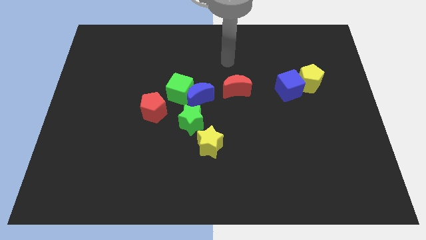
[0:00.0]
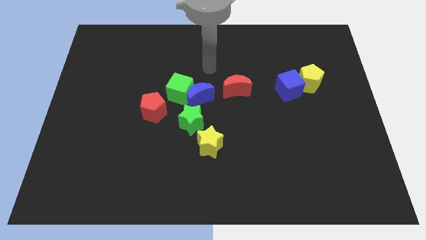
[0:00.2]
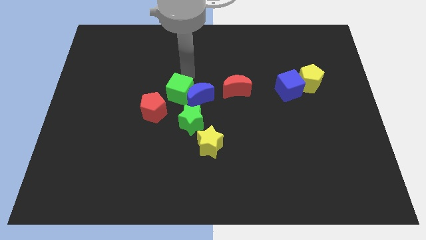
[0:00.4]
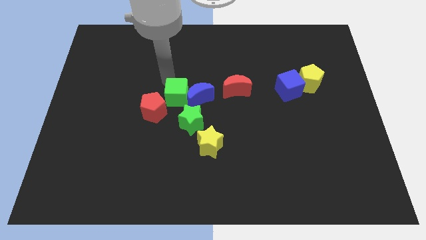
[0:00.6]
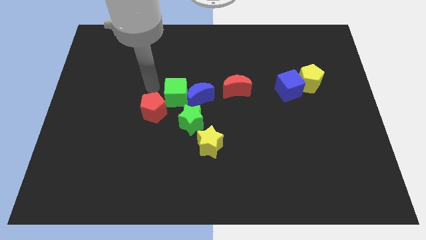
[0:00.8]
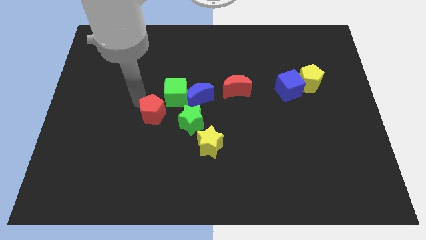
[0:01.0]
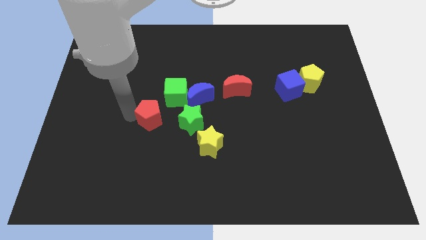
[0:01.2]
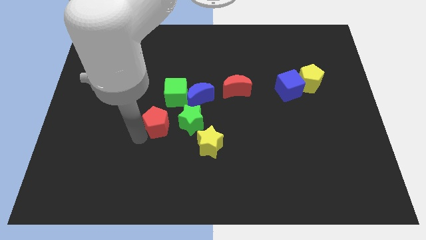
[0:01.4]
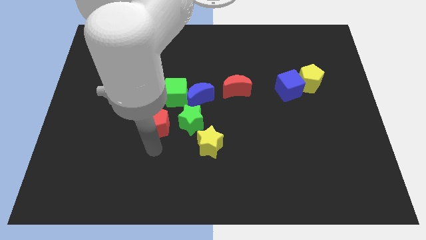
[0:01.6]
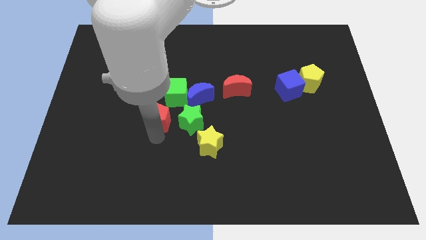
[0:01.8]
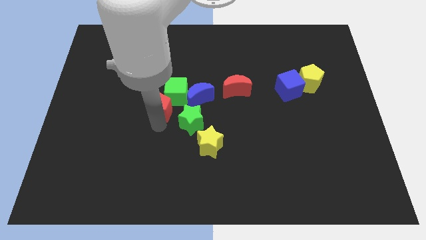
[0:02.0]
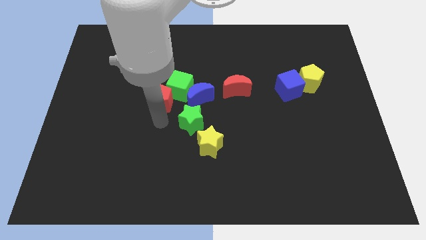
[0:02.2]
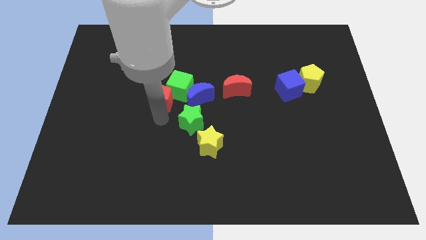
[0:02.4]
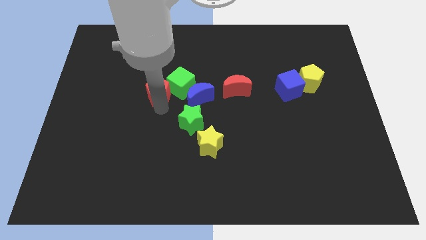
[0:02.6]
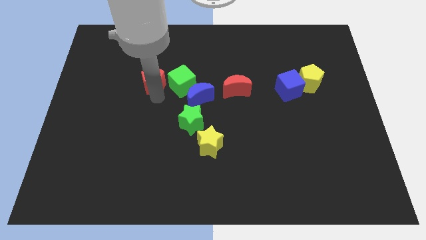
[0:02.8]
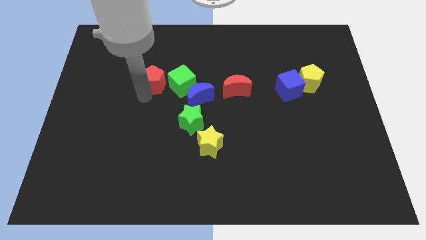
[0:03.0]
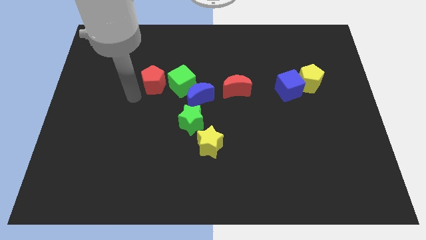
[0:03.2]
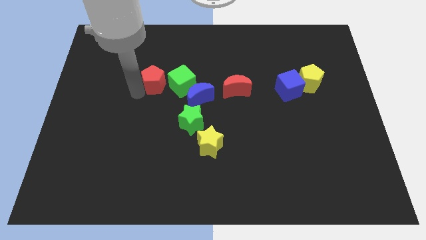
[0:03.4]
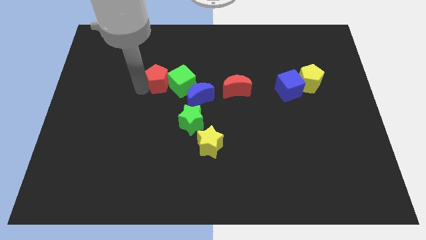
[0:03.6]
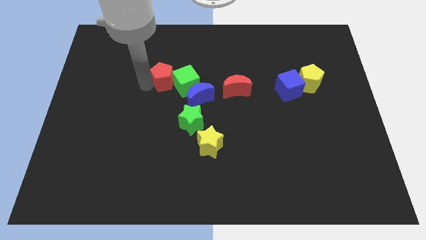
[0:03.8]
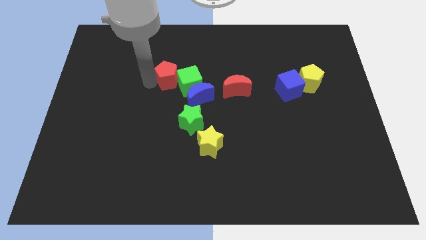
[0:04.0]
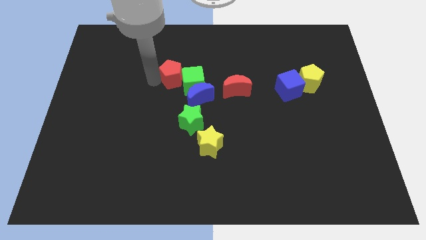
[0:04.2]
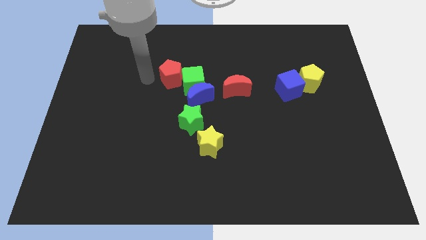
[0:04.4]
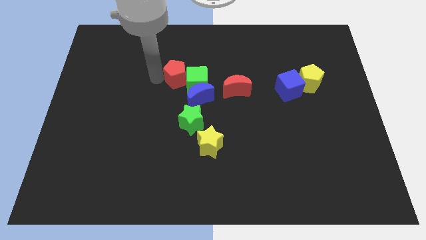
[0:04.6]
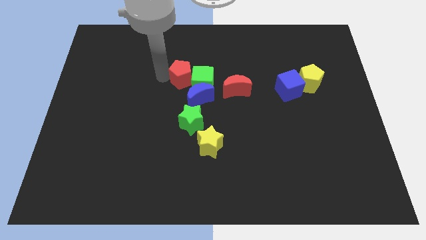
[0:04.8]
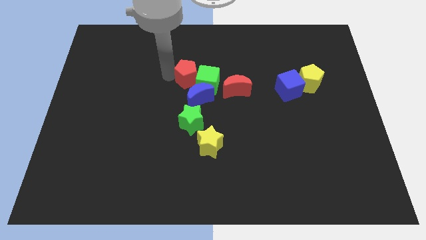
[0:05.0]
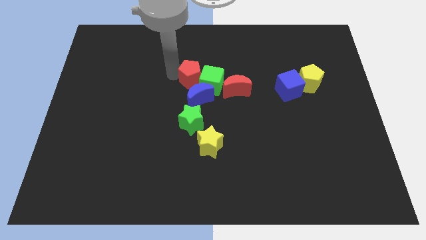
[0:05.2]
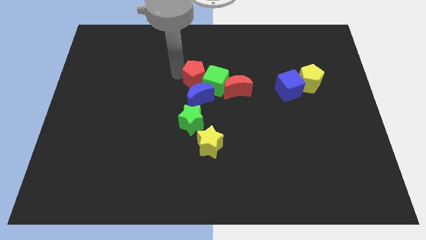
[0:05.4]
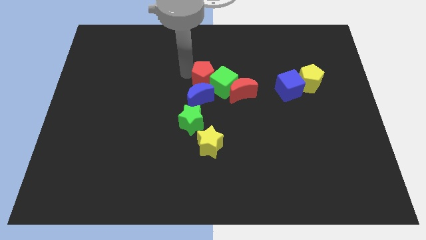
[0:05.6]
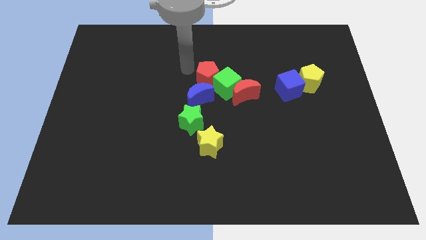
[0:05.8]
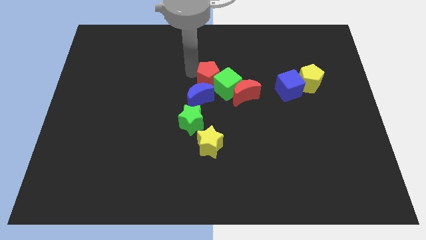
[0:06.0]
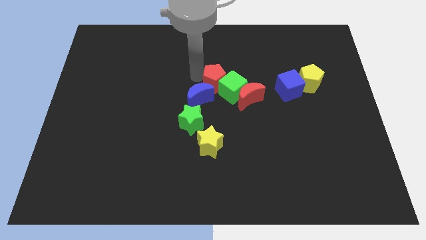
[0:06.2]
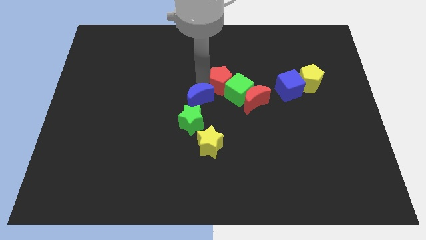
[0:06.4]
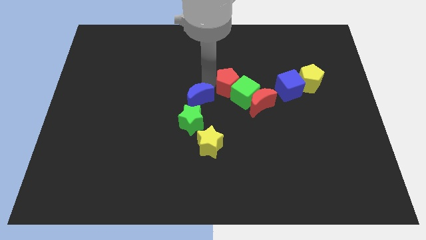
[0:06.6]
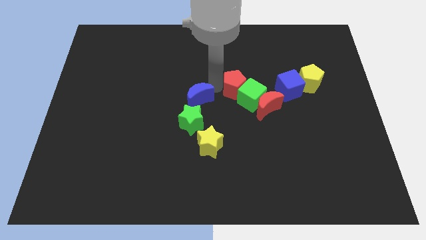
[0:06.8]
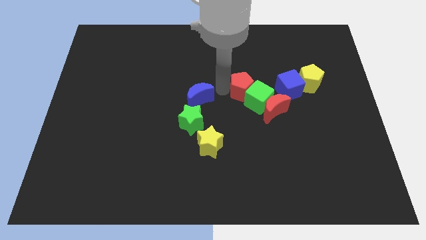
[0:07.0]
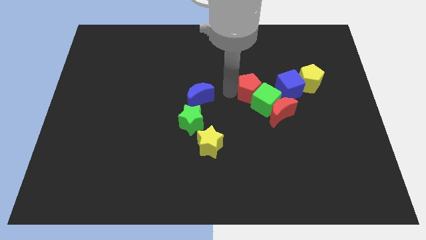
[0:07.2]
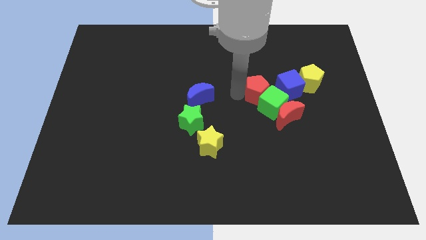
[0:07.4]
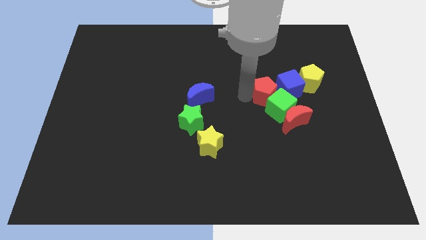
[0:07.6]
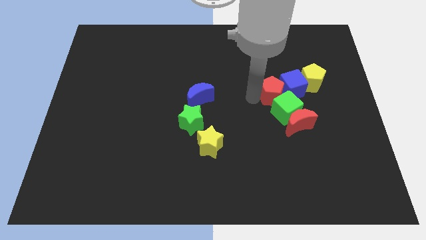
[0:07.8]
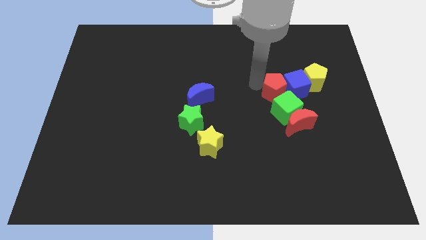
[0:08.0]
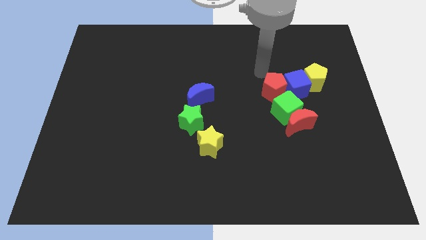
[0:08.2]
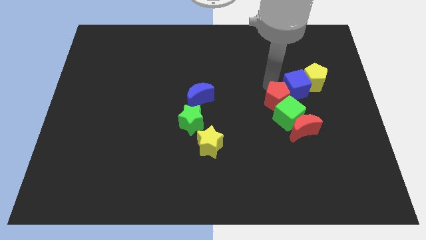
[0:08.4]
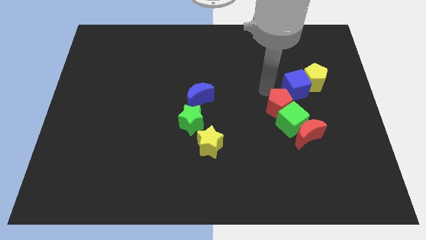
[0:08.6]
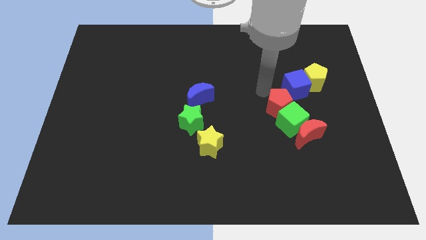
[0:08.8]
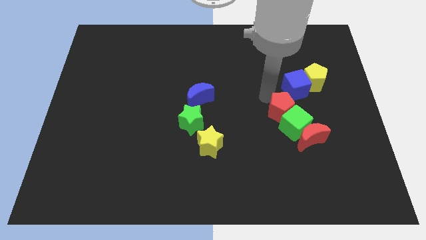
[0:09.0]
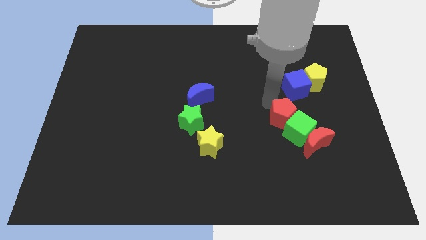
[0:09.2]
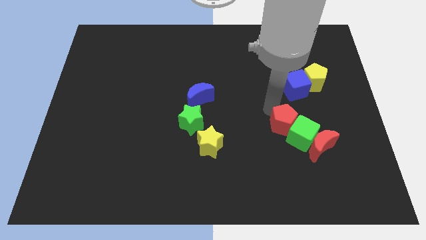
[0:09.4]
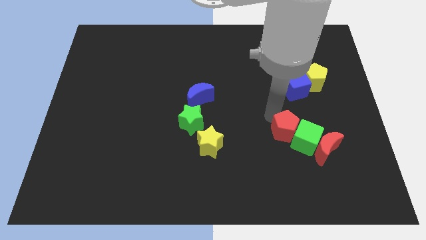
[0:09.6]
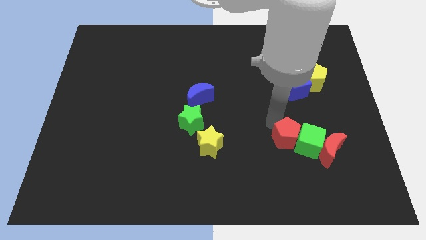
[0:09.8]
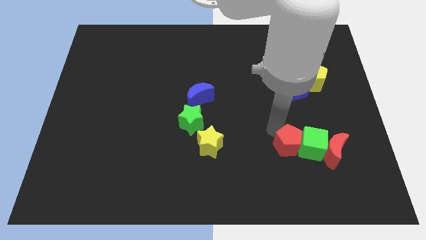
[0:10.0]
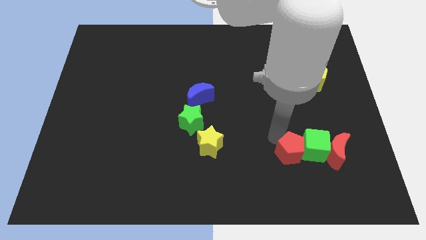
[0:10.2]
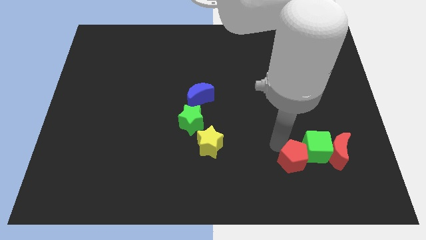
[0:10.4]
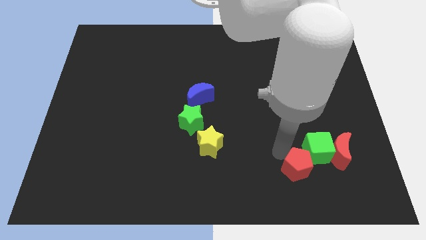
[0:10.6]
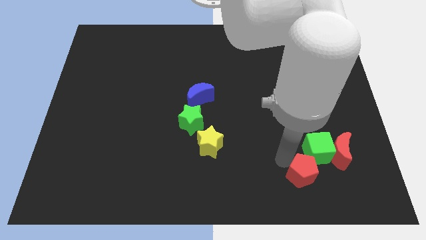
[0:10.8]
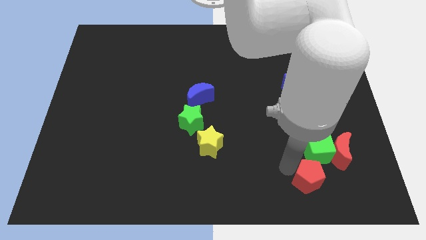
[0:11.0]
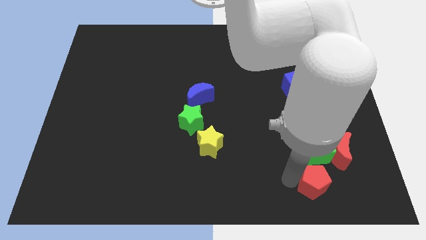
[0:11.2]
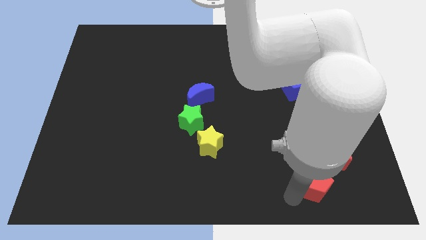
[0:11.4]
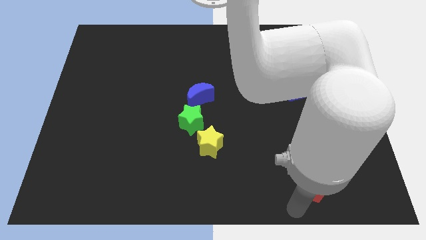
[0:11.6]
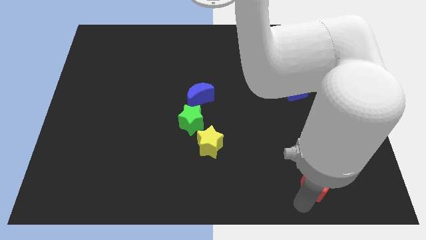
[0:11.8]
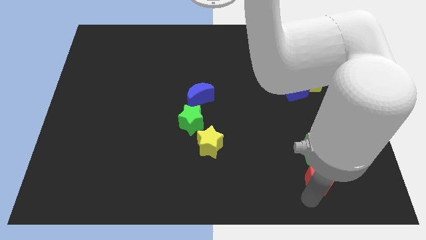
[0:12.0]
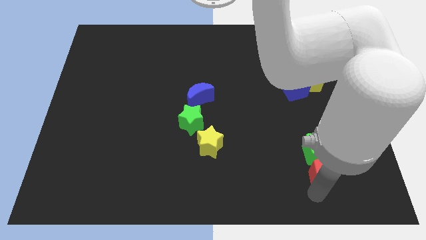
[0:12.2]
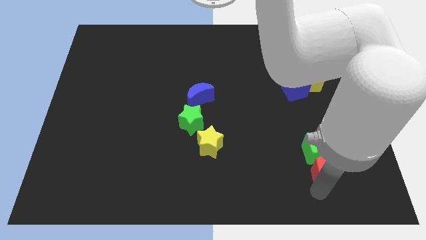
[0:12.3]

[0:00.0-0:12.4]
move the red pentagon close to the red moon

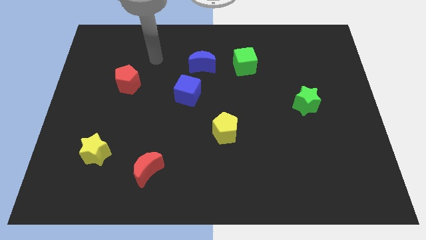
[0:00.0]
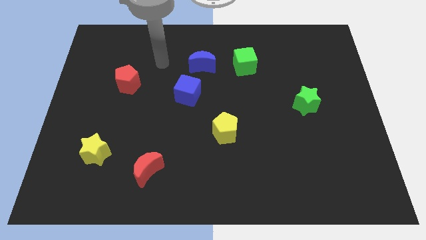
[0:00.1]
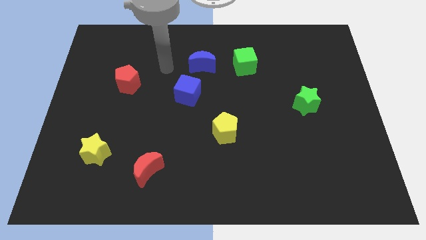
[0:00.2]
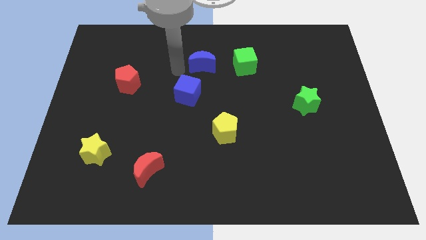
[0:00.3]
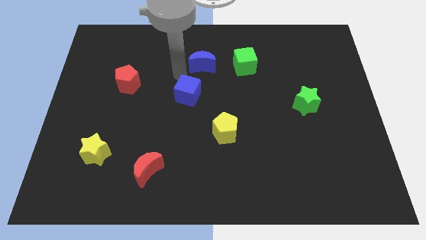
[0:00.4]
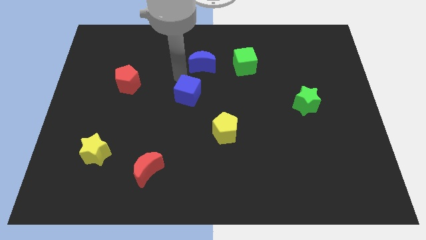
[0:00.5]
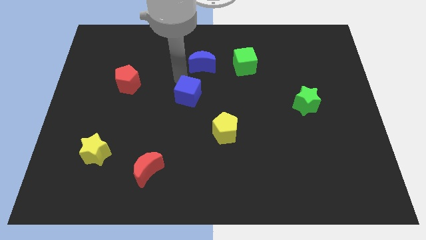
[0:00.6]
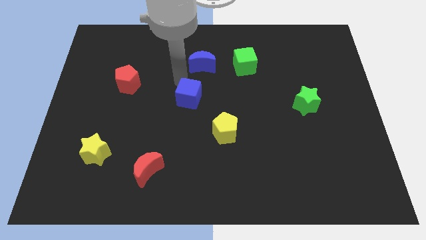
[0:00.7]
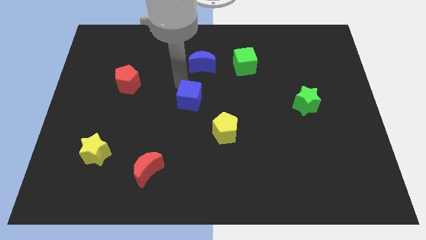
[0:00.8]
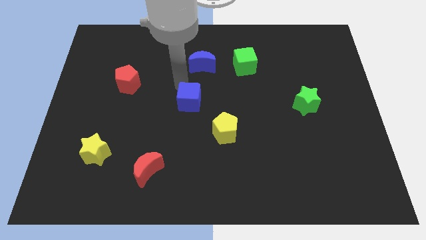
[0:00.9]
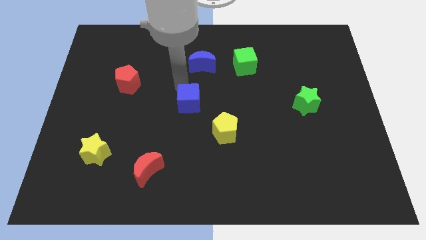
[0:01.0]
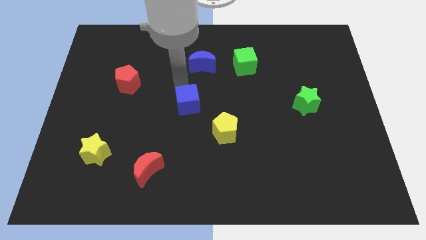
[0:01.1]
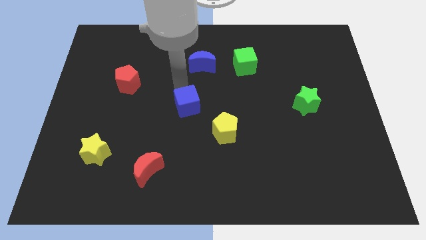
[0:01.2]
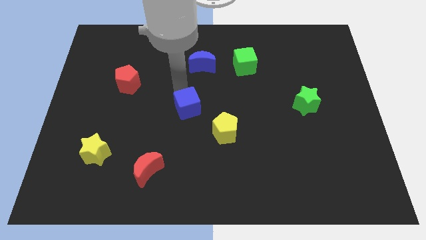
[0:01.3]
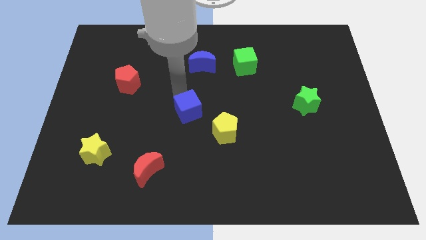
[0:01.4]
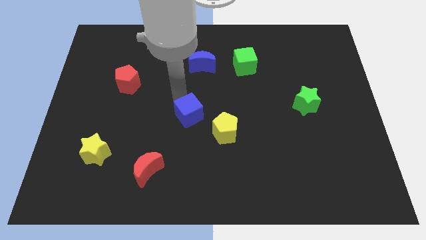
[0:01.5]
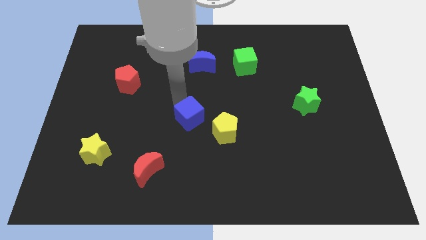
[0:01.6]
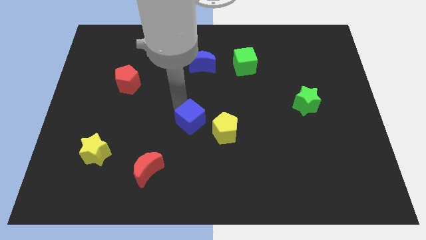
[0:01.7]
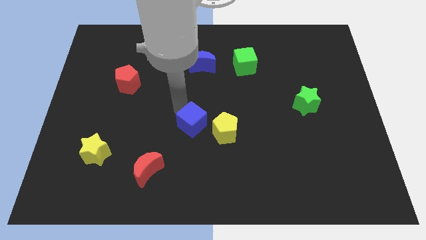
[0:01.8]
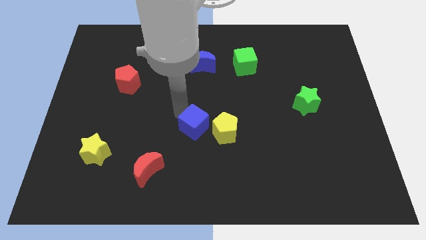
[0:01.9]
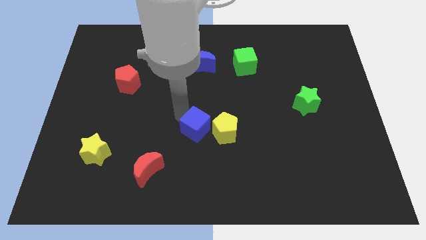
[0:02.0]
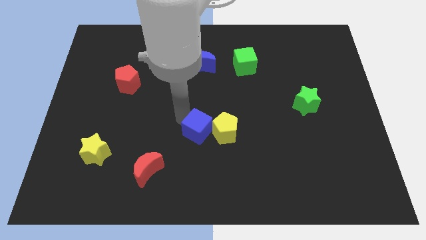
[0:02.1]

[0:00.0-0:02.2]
put the blue cube to the yellow pentagon
